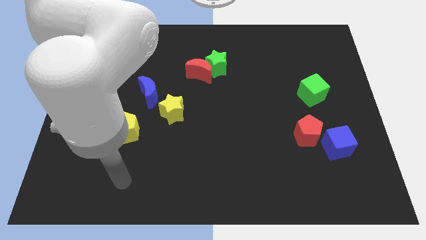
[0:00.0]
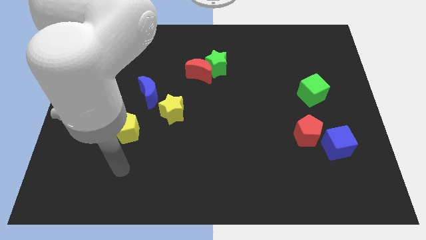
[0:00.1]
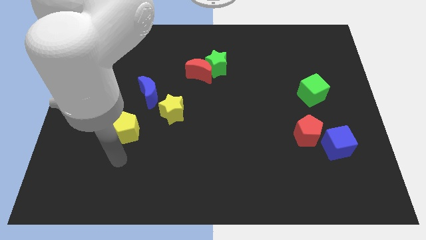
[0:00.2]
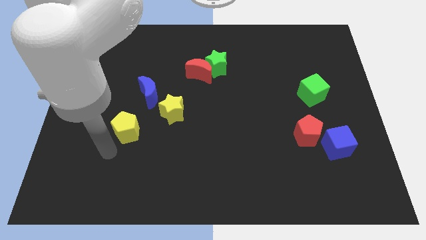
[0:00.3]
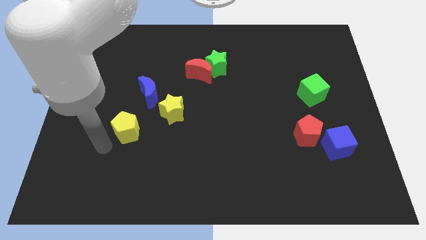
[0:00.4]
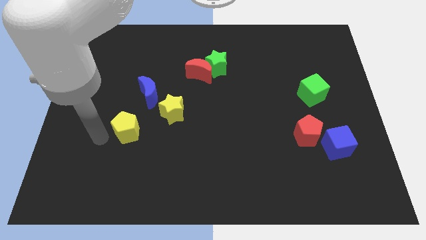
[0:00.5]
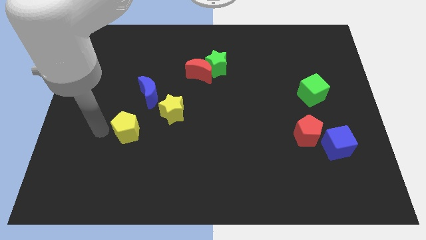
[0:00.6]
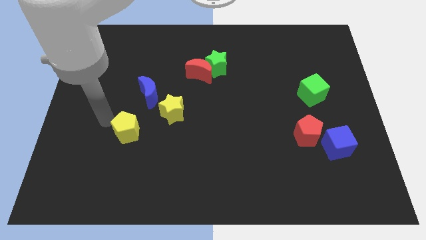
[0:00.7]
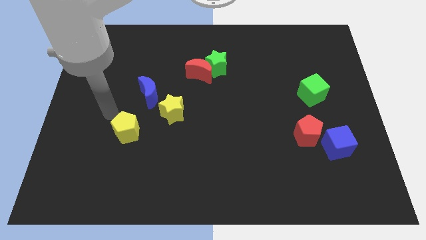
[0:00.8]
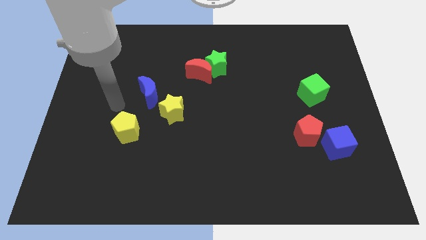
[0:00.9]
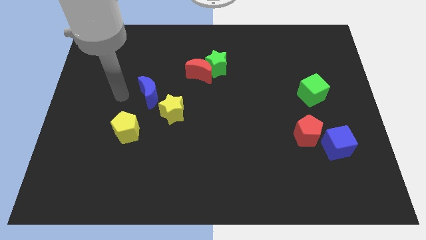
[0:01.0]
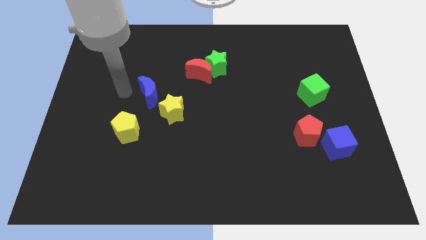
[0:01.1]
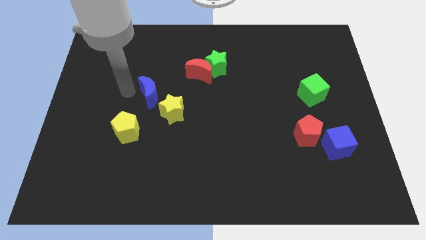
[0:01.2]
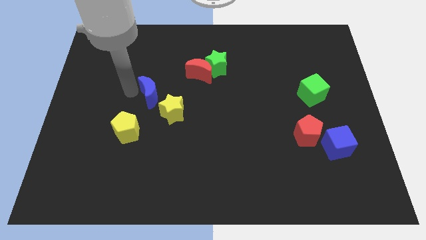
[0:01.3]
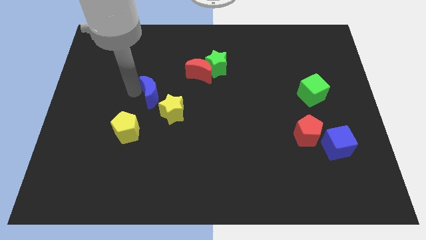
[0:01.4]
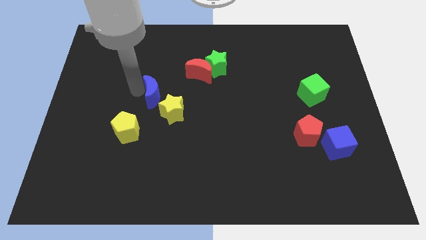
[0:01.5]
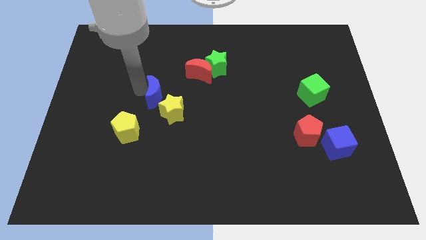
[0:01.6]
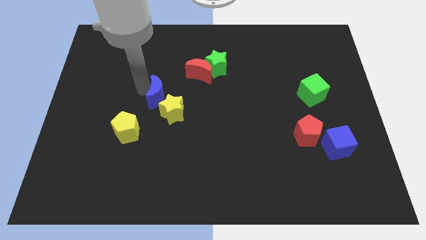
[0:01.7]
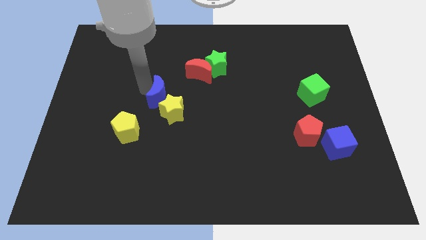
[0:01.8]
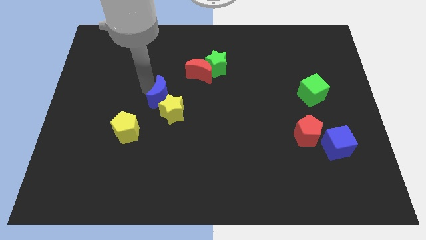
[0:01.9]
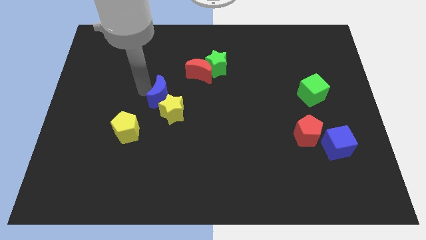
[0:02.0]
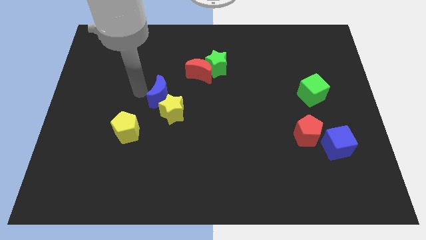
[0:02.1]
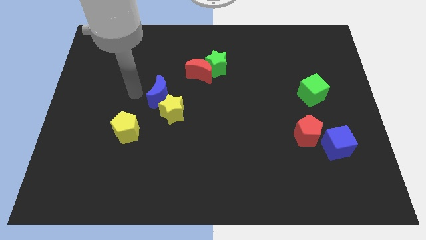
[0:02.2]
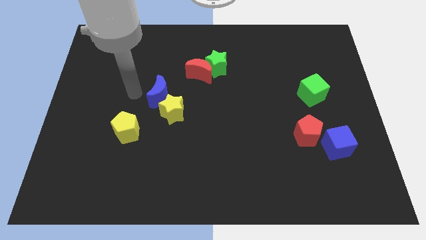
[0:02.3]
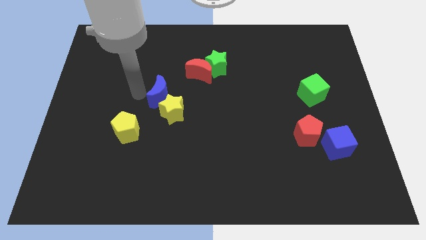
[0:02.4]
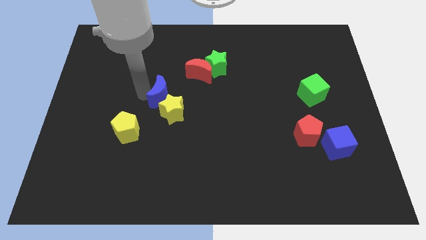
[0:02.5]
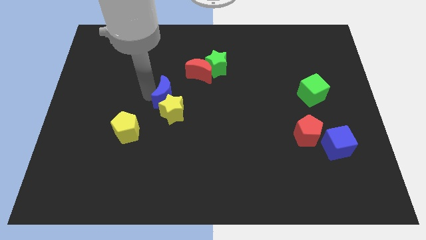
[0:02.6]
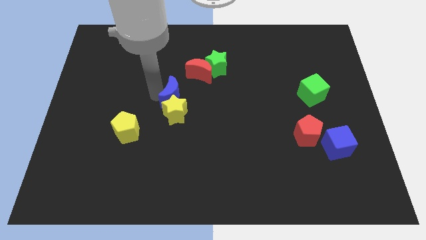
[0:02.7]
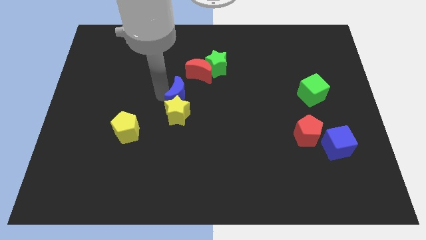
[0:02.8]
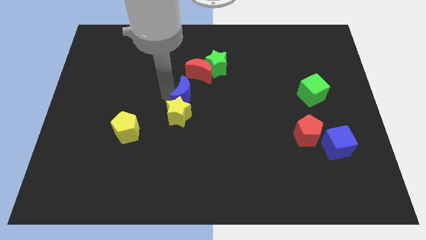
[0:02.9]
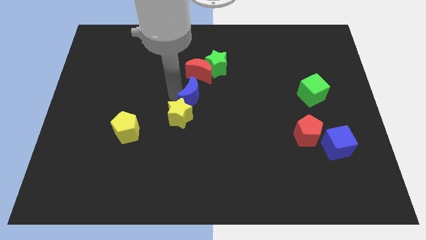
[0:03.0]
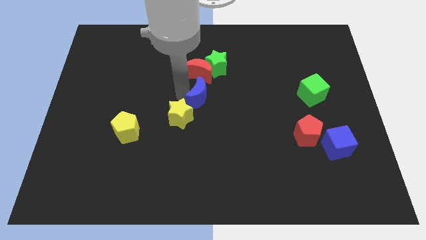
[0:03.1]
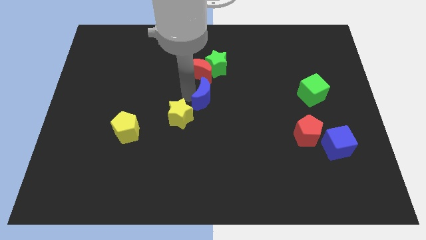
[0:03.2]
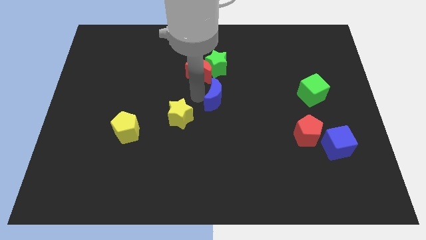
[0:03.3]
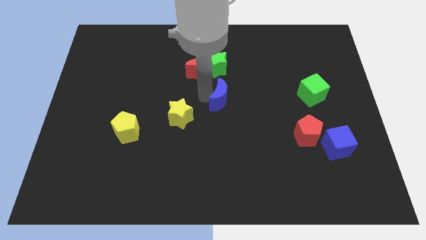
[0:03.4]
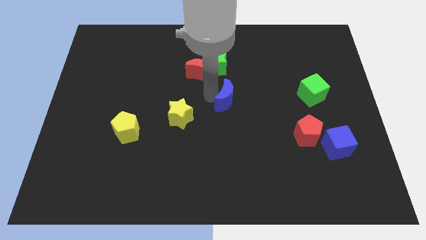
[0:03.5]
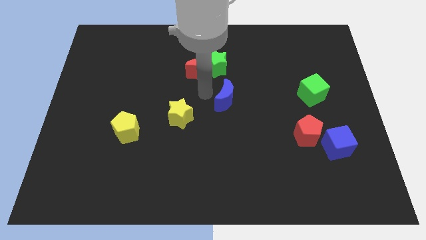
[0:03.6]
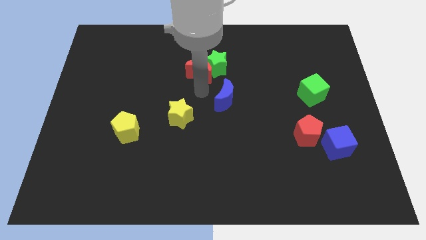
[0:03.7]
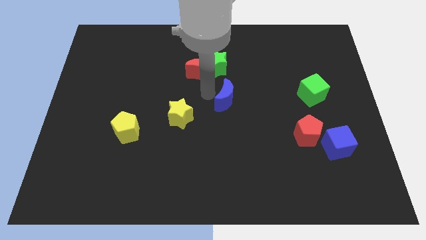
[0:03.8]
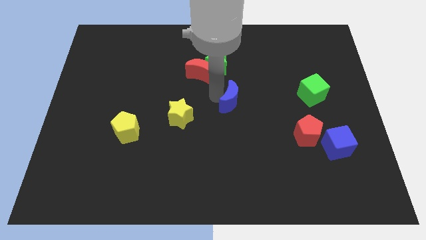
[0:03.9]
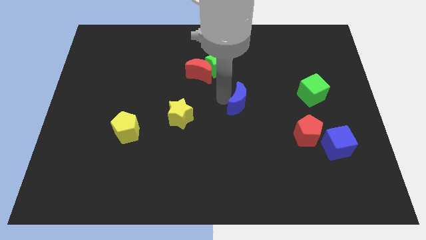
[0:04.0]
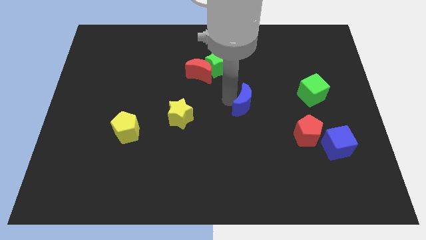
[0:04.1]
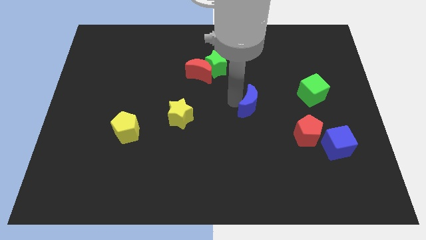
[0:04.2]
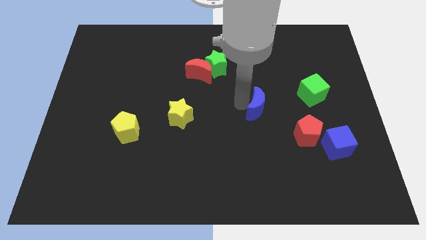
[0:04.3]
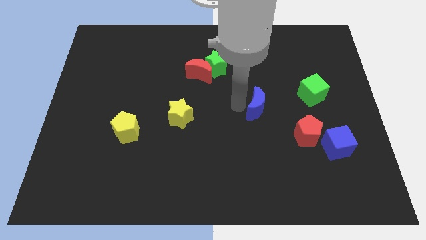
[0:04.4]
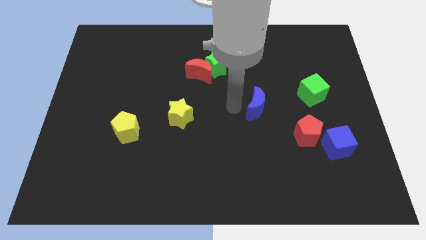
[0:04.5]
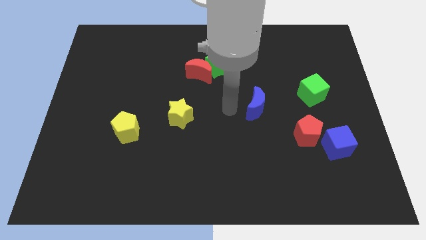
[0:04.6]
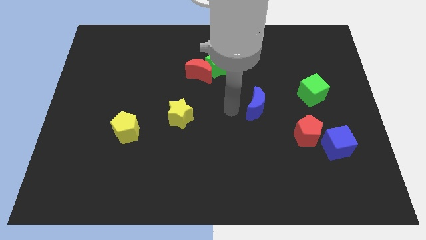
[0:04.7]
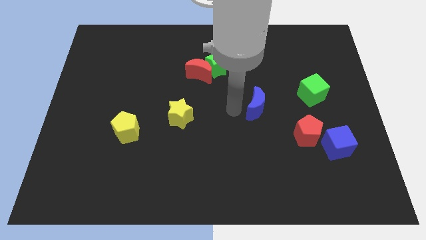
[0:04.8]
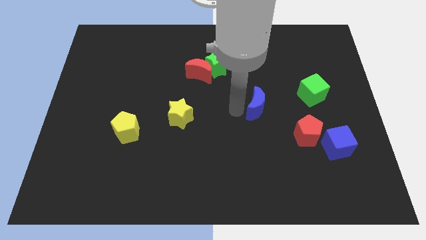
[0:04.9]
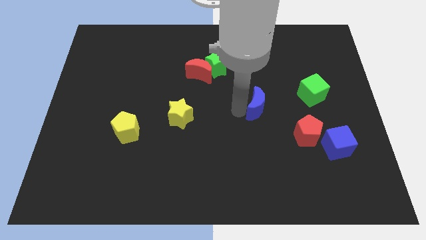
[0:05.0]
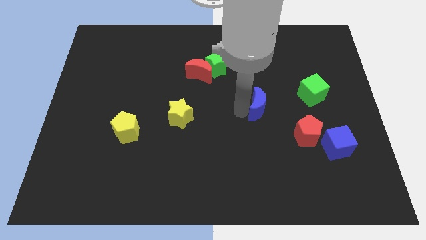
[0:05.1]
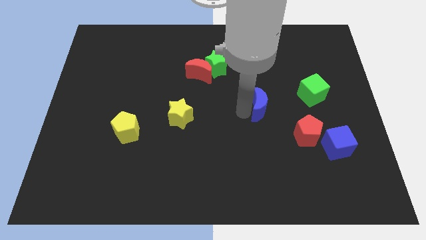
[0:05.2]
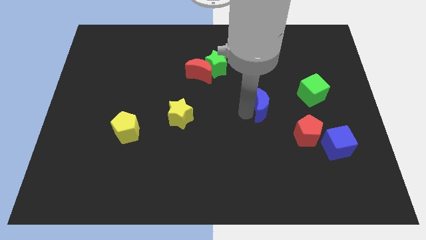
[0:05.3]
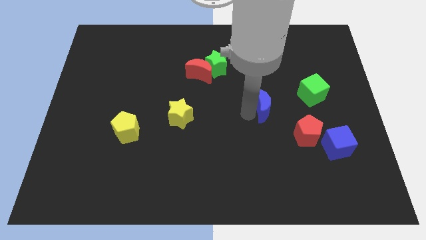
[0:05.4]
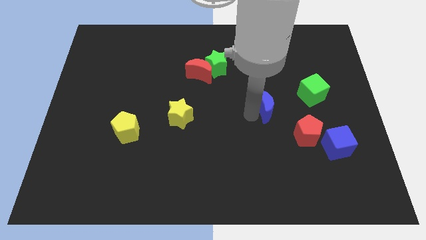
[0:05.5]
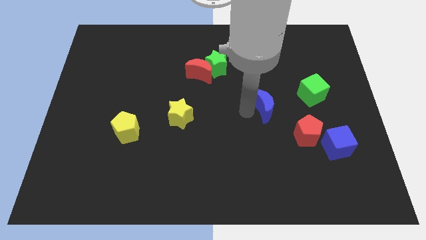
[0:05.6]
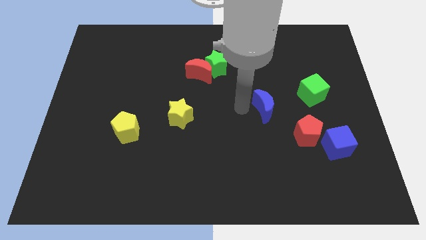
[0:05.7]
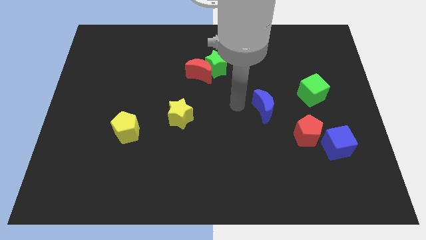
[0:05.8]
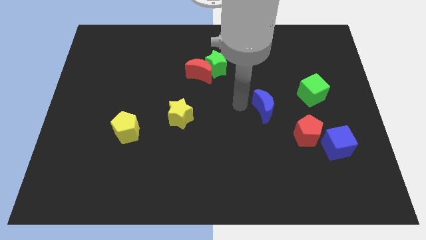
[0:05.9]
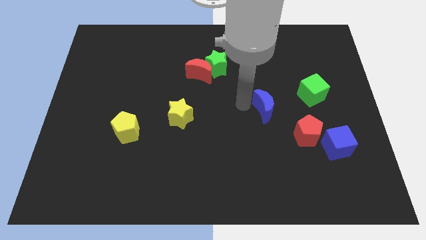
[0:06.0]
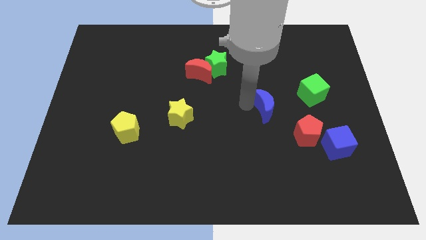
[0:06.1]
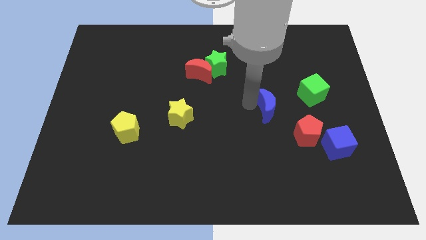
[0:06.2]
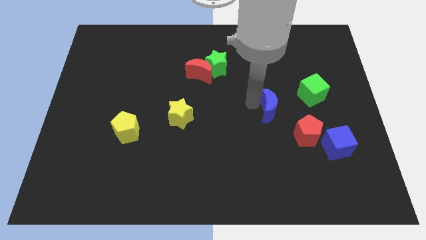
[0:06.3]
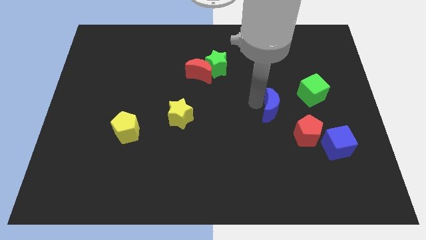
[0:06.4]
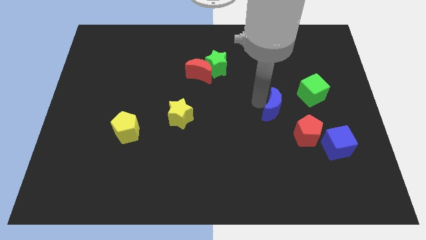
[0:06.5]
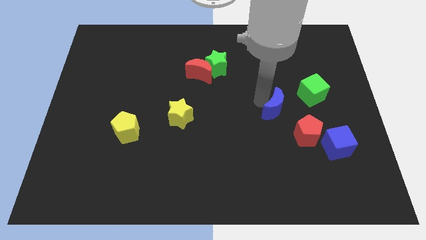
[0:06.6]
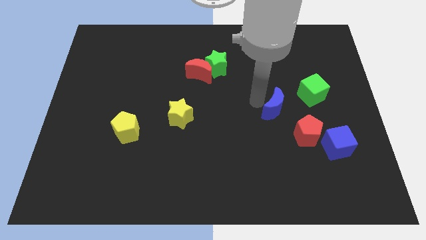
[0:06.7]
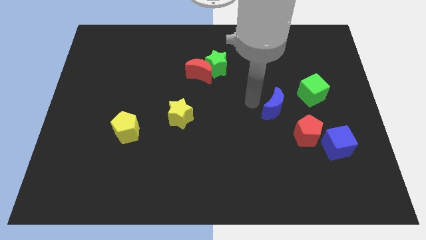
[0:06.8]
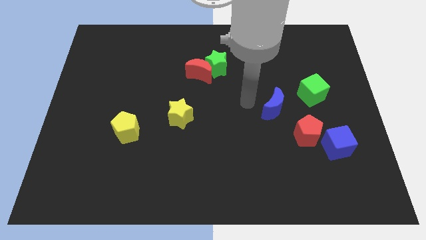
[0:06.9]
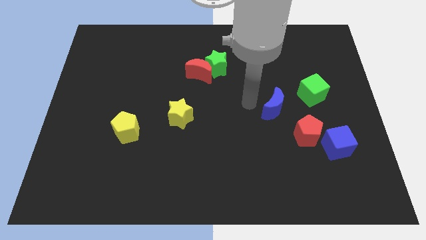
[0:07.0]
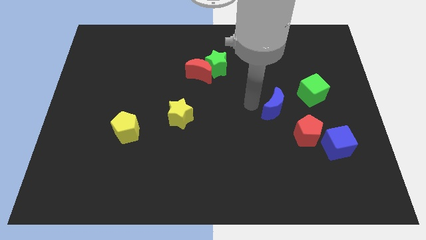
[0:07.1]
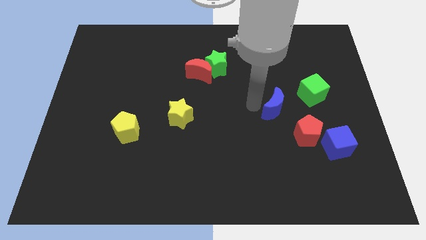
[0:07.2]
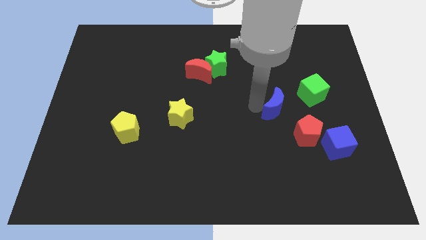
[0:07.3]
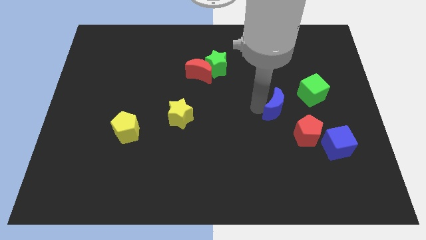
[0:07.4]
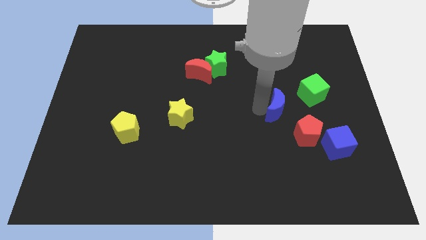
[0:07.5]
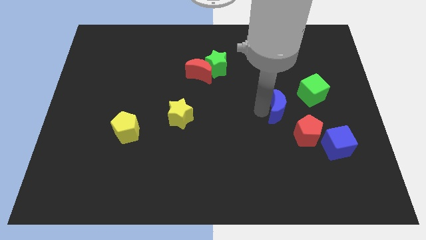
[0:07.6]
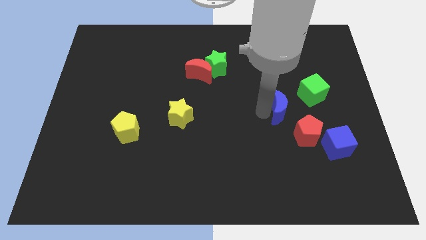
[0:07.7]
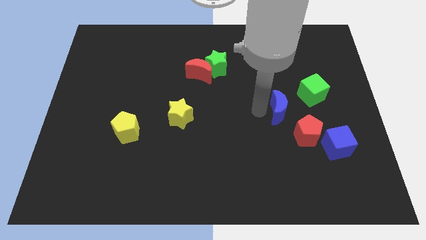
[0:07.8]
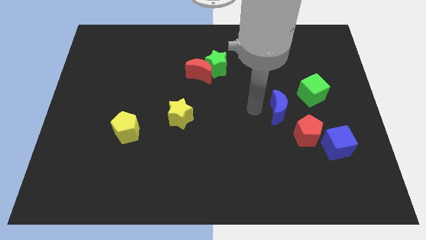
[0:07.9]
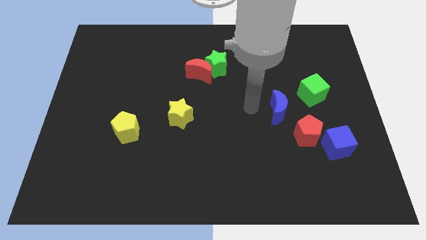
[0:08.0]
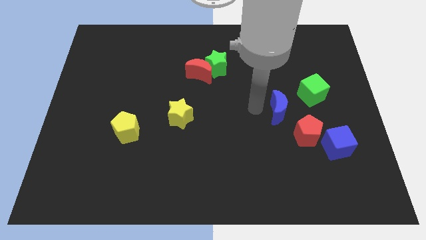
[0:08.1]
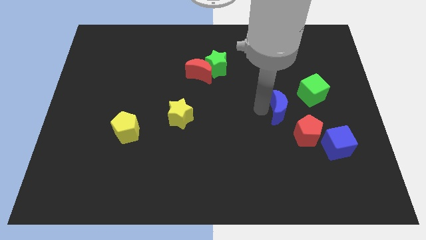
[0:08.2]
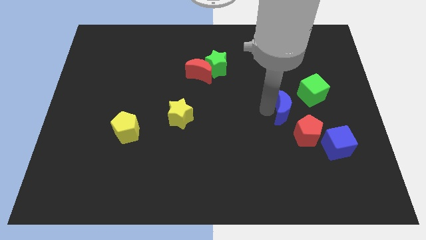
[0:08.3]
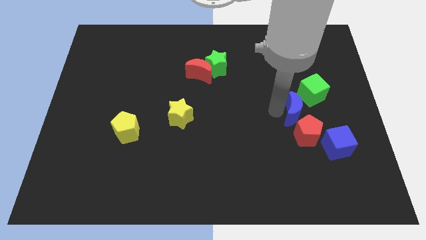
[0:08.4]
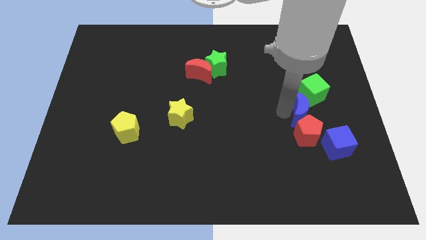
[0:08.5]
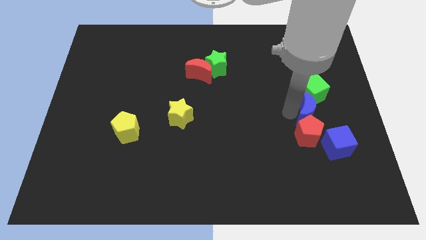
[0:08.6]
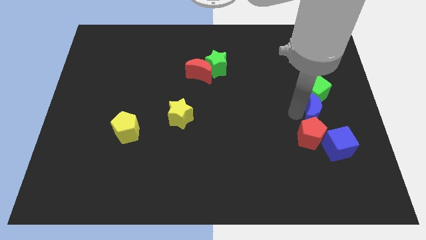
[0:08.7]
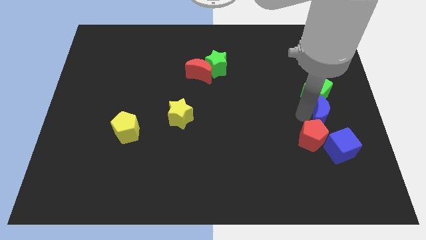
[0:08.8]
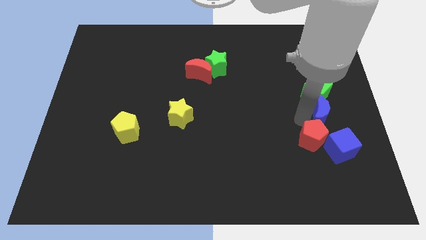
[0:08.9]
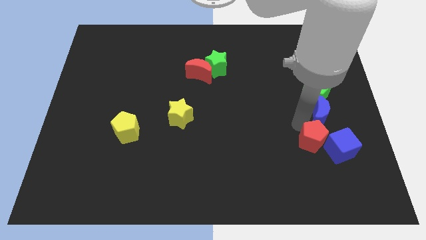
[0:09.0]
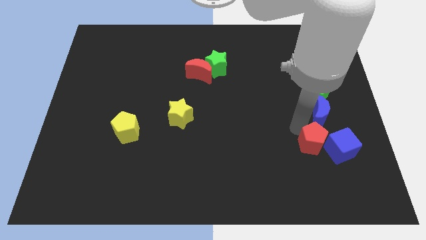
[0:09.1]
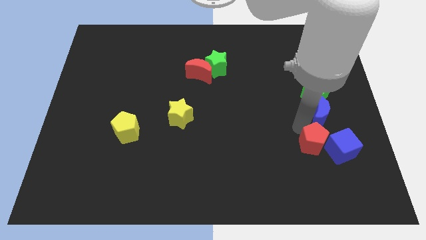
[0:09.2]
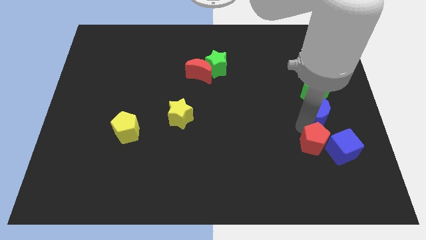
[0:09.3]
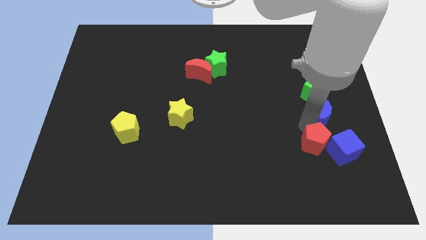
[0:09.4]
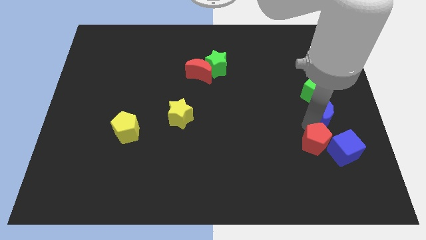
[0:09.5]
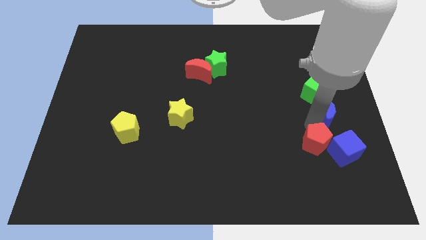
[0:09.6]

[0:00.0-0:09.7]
move the blue moon to the right side of the board
